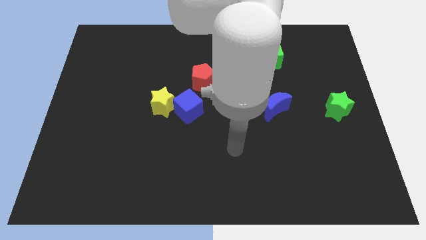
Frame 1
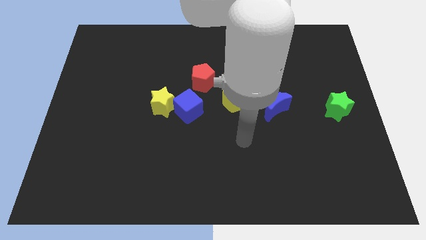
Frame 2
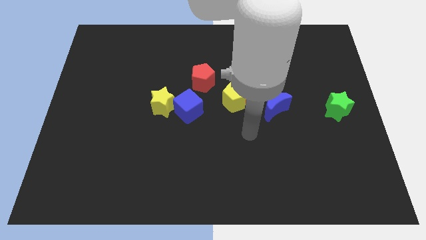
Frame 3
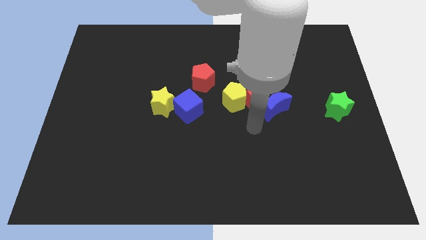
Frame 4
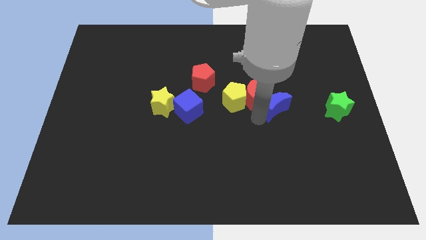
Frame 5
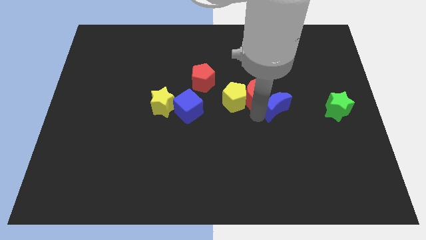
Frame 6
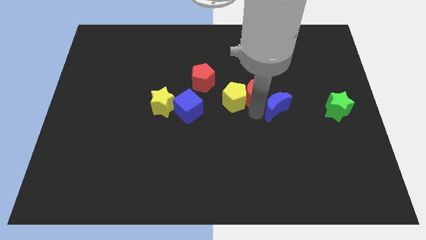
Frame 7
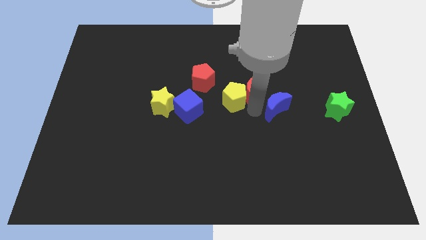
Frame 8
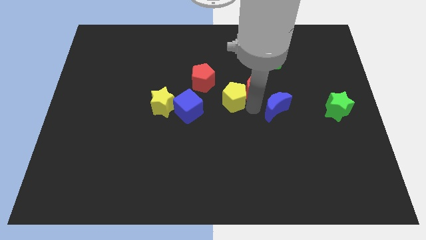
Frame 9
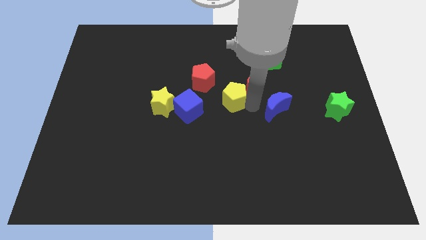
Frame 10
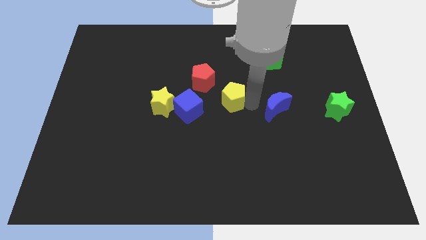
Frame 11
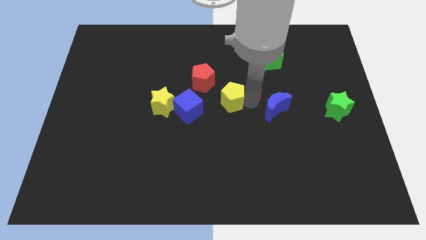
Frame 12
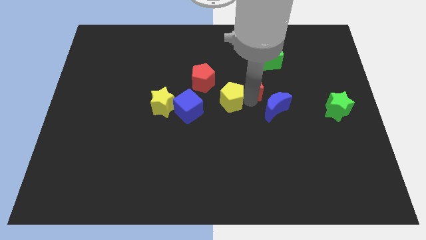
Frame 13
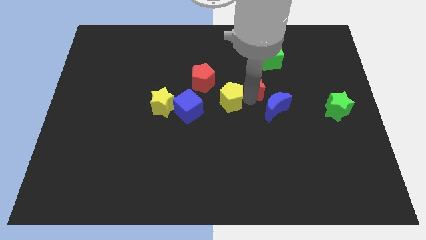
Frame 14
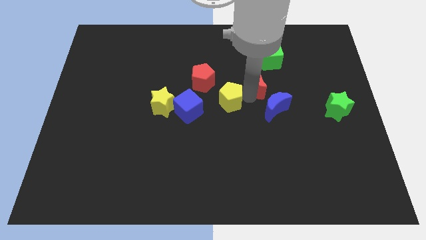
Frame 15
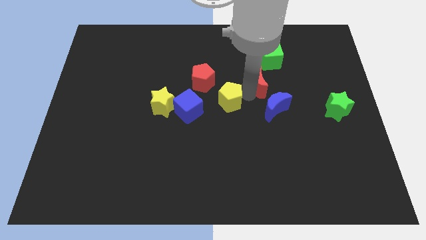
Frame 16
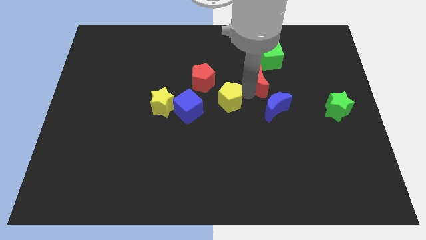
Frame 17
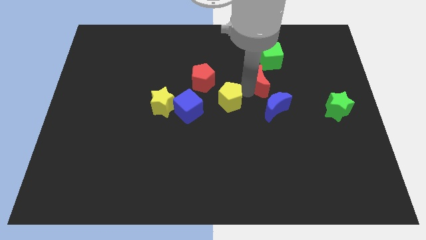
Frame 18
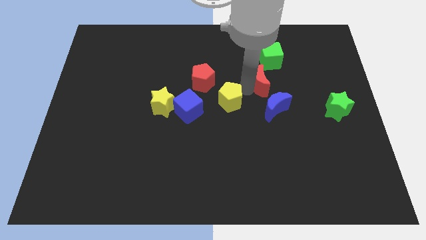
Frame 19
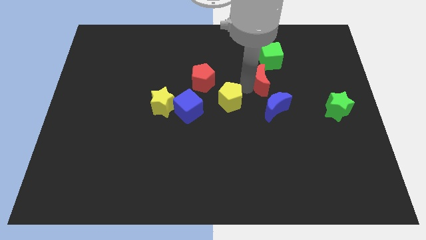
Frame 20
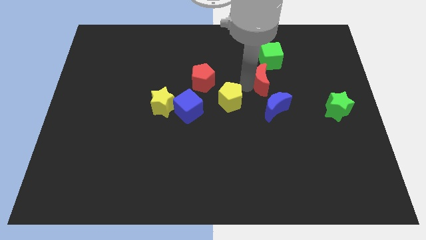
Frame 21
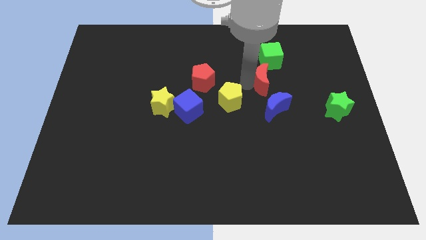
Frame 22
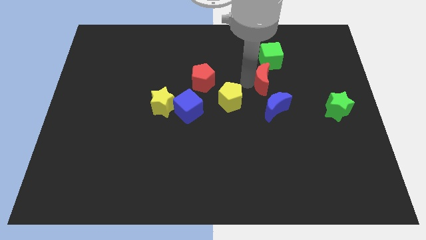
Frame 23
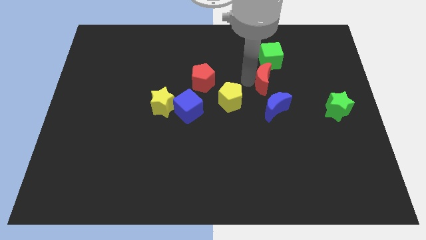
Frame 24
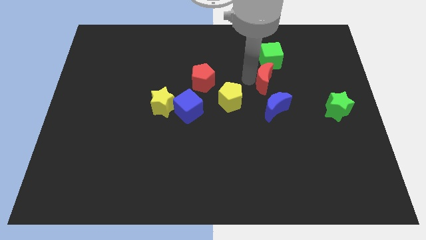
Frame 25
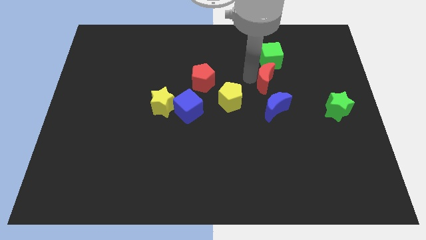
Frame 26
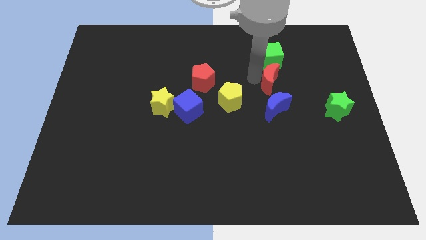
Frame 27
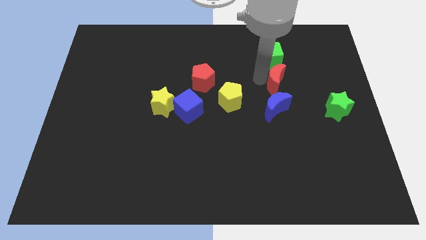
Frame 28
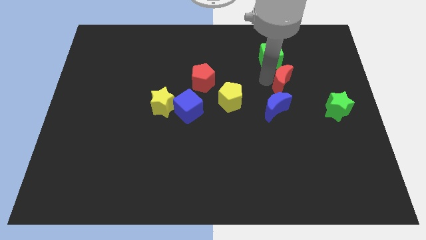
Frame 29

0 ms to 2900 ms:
pull the red moon apart from the yellow pentagon and blue moon

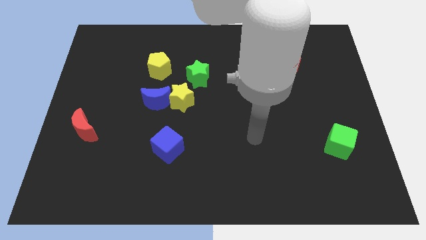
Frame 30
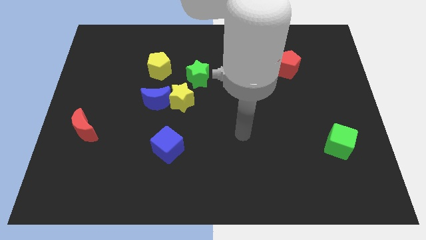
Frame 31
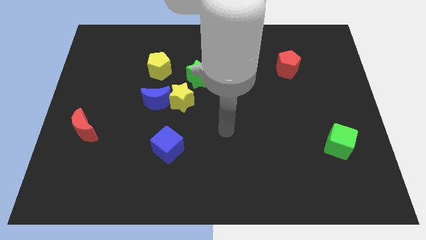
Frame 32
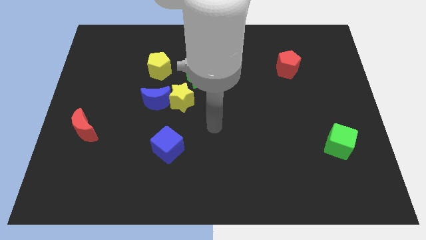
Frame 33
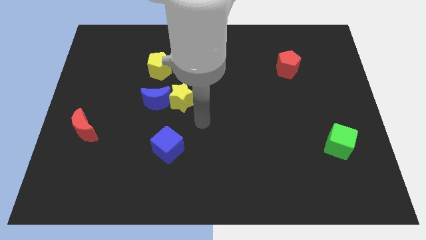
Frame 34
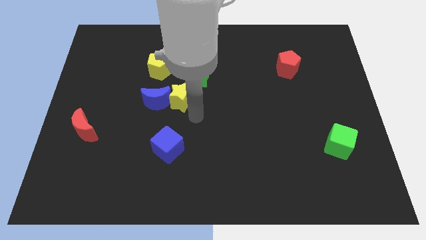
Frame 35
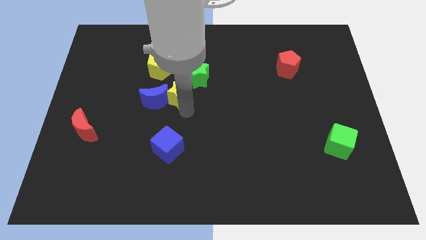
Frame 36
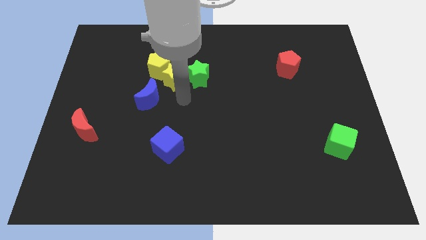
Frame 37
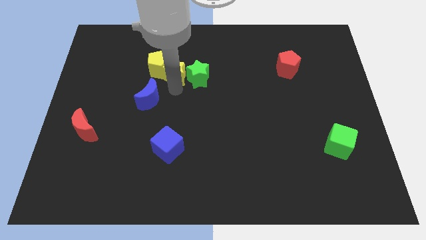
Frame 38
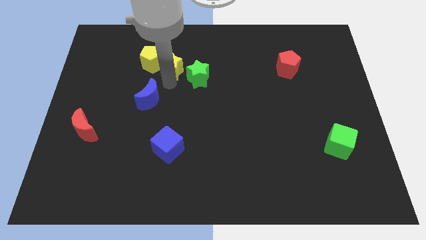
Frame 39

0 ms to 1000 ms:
separate the blue moon from the yellow star

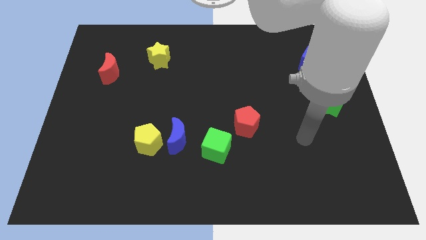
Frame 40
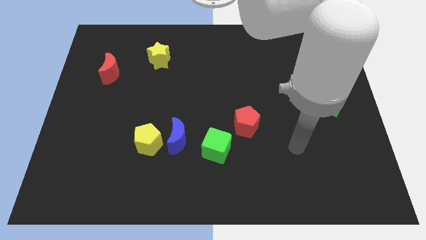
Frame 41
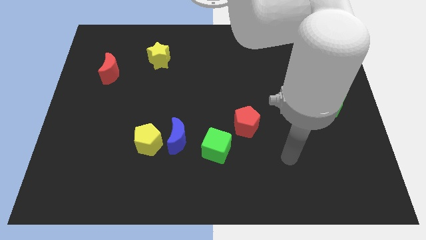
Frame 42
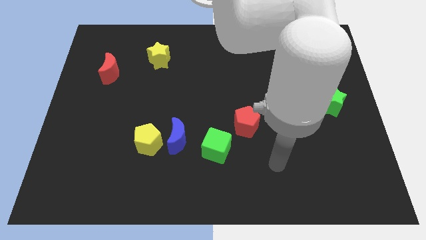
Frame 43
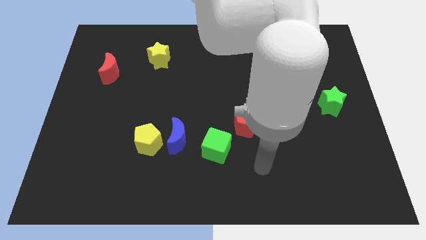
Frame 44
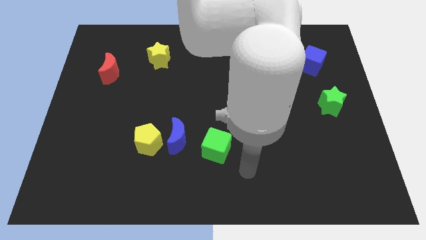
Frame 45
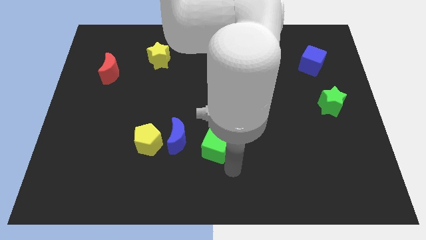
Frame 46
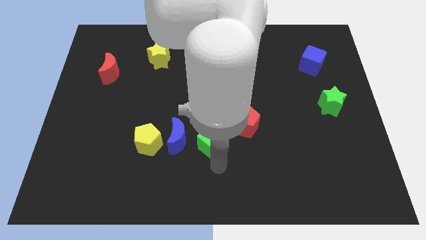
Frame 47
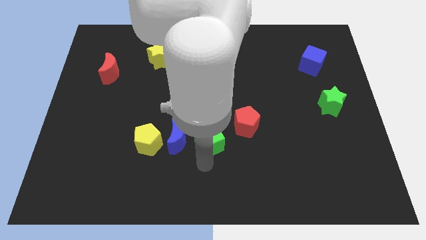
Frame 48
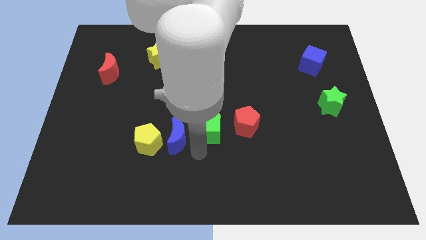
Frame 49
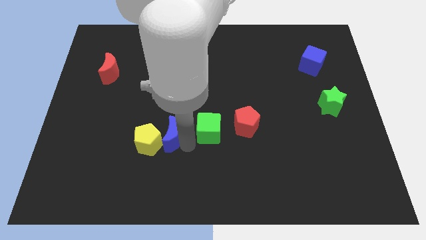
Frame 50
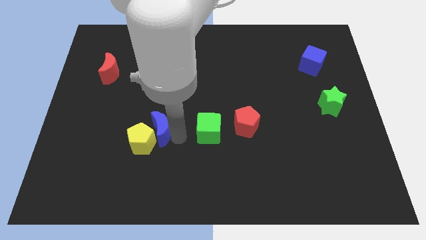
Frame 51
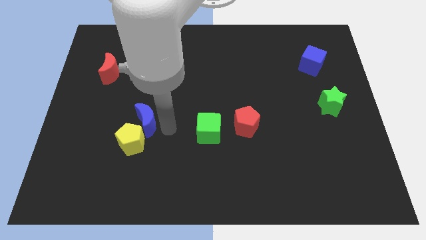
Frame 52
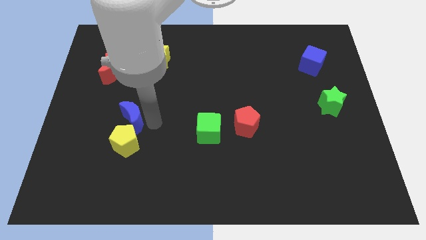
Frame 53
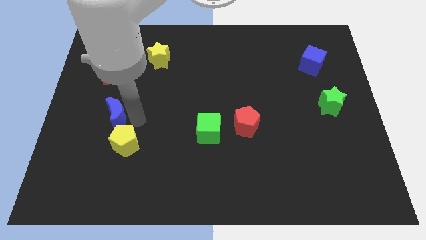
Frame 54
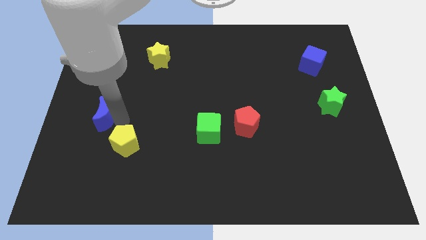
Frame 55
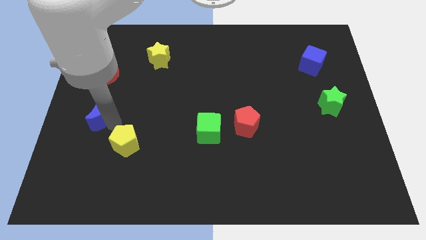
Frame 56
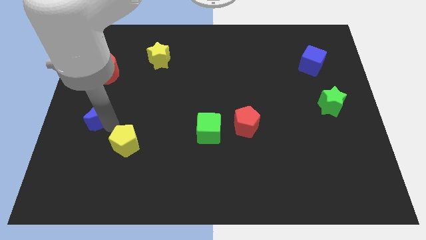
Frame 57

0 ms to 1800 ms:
separate the yellow pentagon from the blue moon

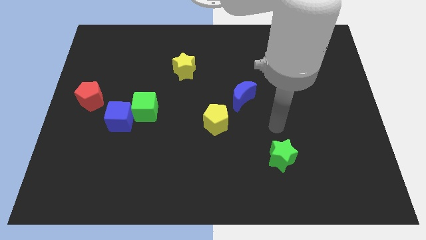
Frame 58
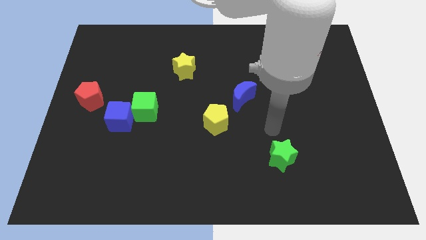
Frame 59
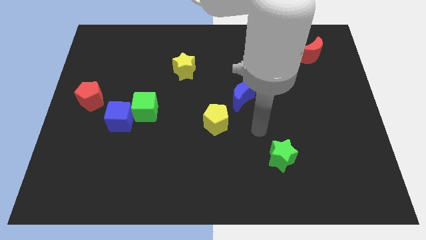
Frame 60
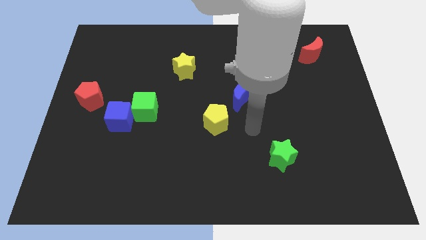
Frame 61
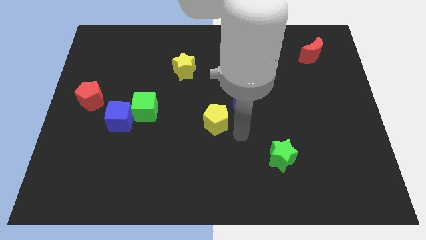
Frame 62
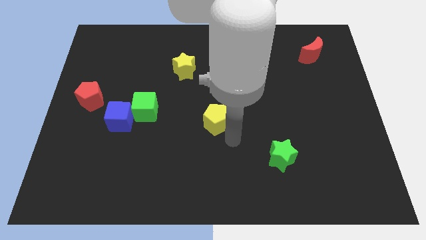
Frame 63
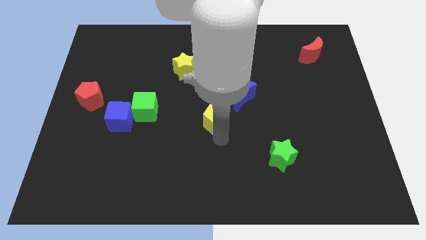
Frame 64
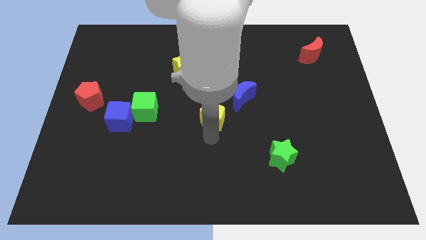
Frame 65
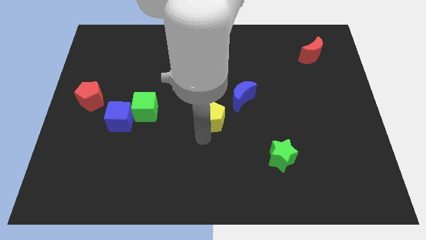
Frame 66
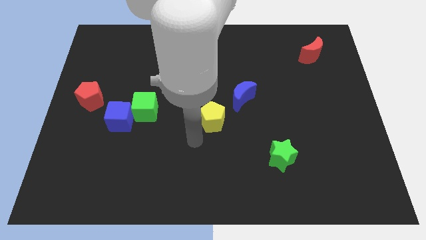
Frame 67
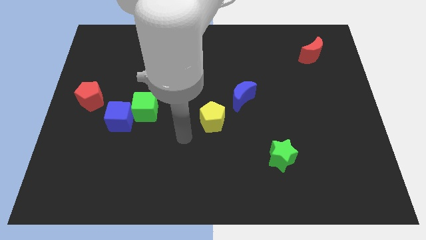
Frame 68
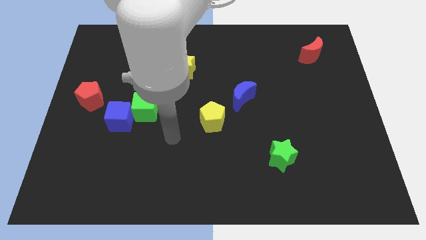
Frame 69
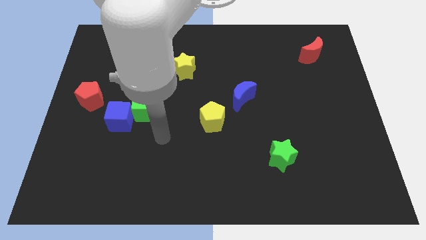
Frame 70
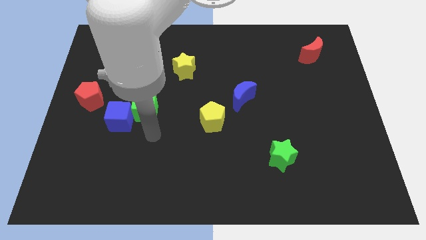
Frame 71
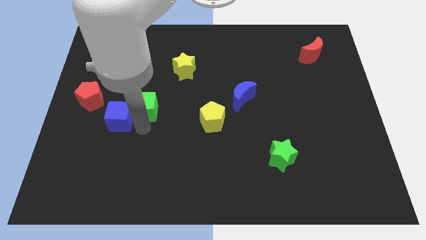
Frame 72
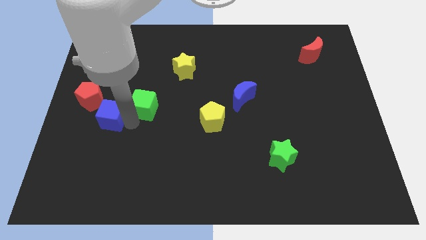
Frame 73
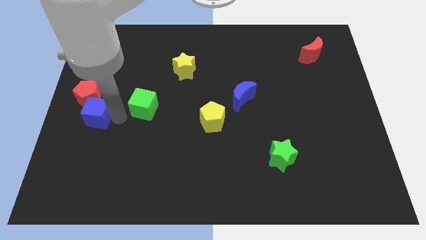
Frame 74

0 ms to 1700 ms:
move the green cube away from the blue cube

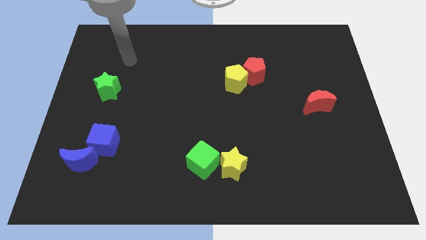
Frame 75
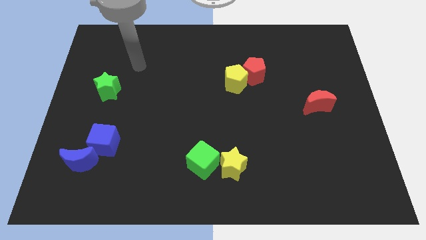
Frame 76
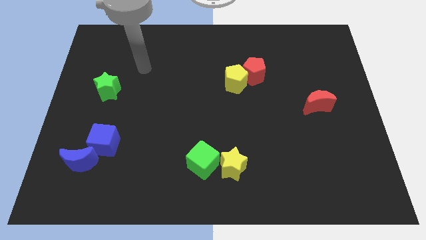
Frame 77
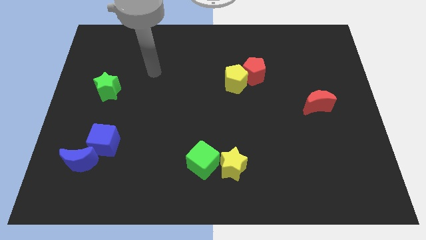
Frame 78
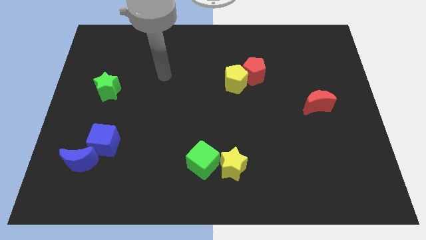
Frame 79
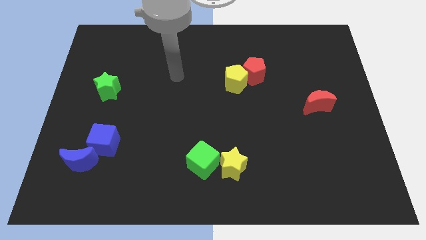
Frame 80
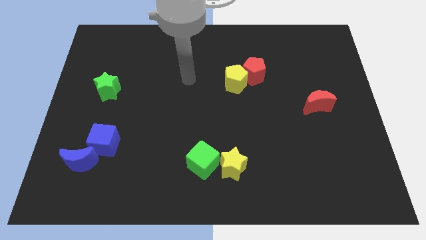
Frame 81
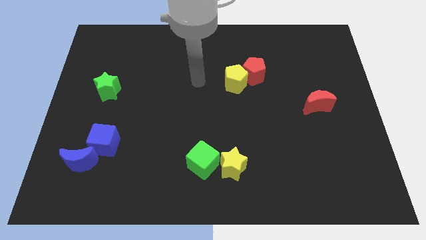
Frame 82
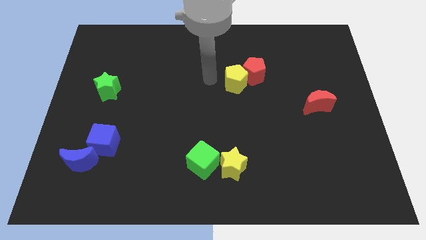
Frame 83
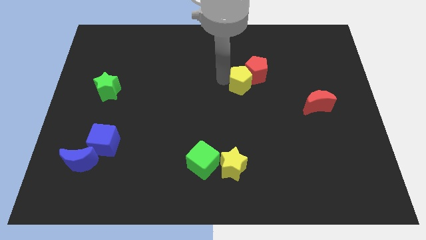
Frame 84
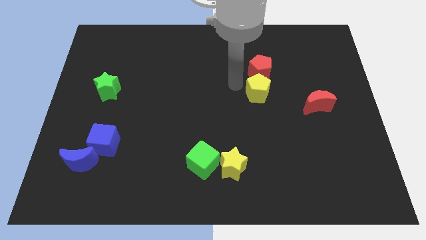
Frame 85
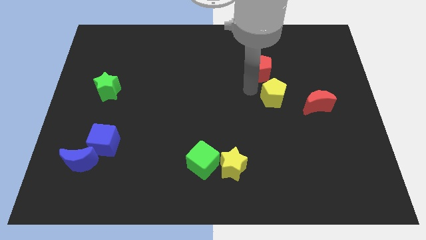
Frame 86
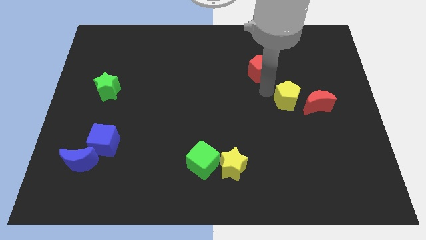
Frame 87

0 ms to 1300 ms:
move the red pentagon away from the yellow pentagon

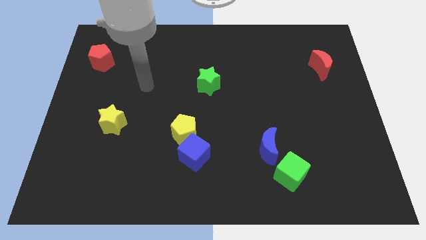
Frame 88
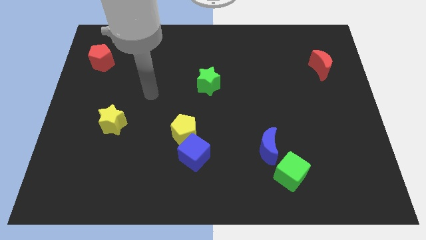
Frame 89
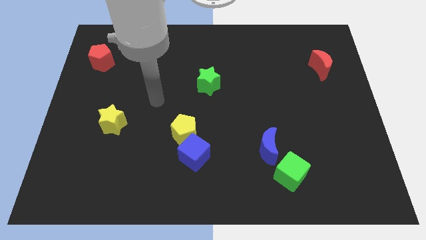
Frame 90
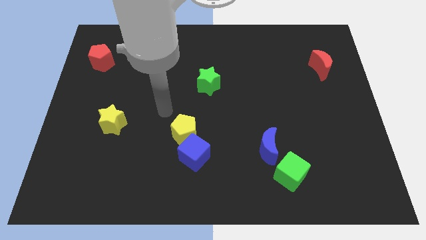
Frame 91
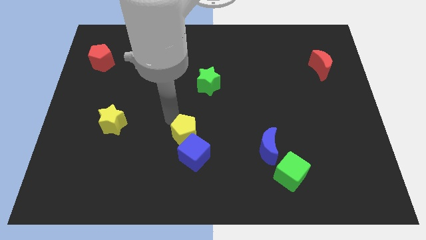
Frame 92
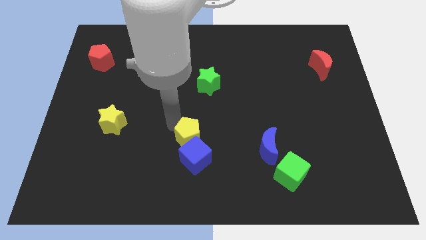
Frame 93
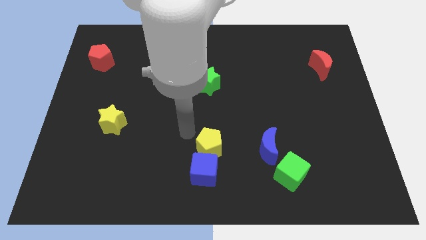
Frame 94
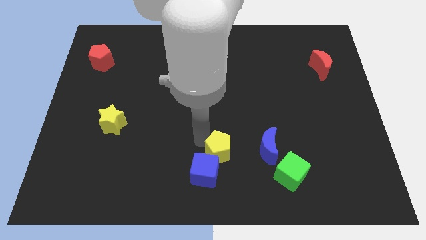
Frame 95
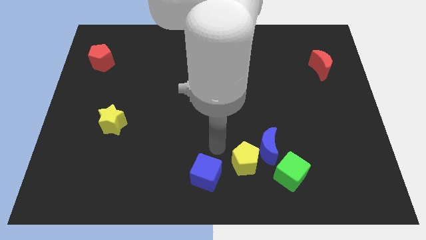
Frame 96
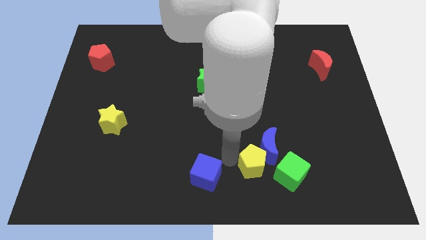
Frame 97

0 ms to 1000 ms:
separate the blue cube from the yellow pentagon
